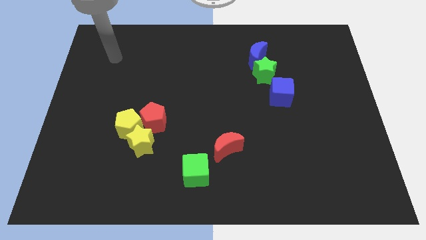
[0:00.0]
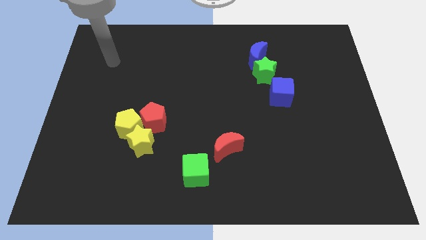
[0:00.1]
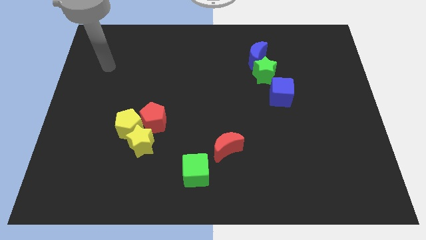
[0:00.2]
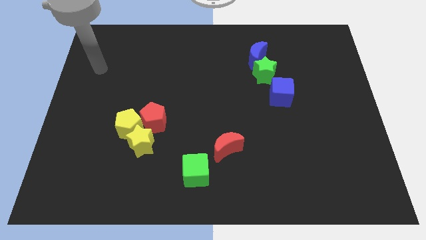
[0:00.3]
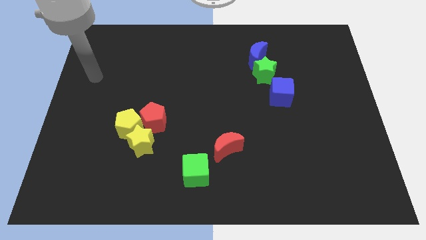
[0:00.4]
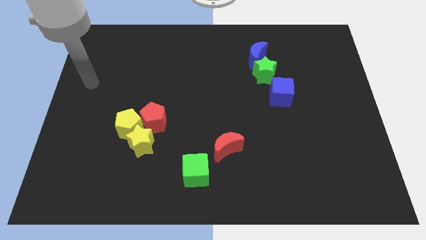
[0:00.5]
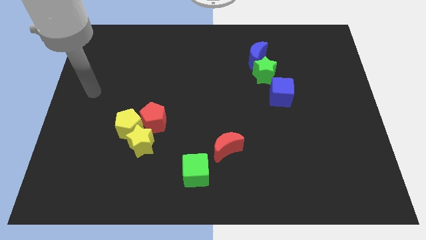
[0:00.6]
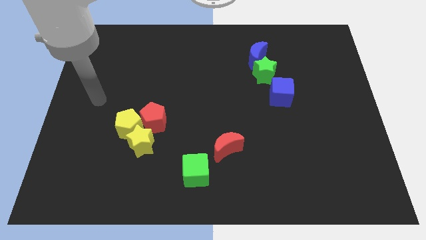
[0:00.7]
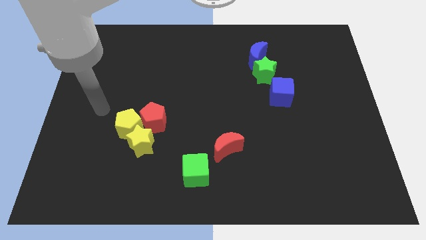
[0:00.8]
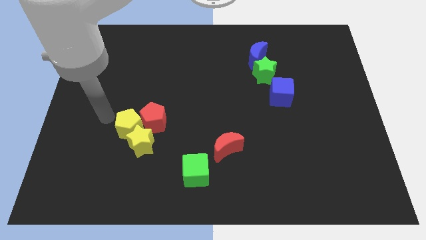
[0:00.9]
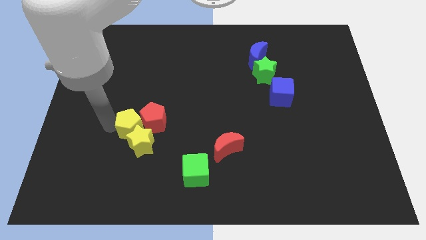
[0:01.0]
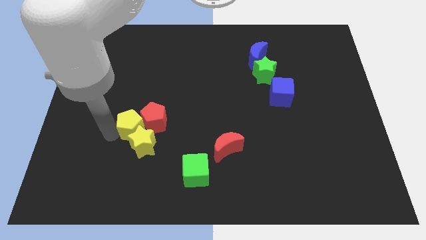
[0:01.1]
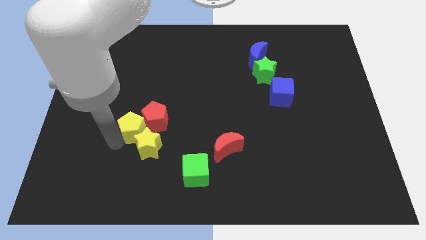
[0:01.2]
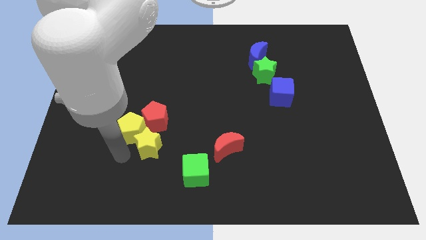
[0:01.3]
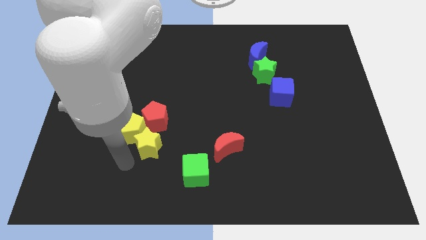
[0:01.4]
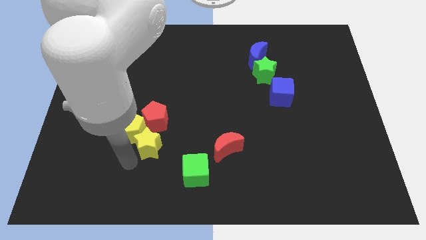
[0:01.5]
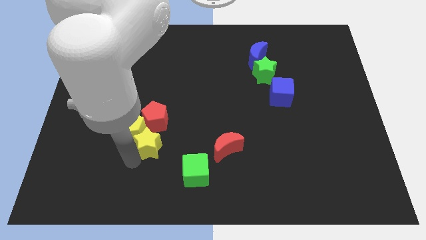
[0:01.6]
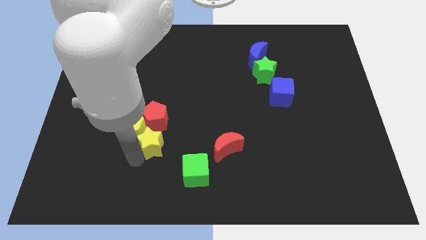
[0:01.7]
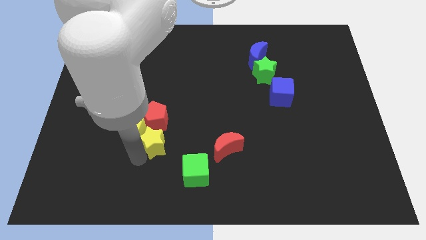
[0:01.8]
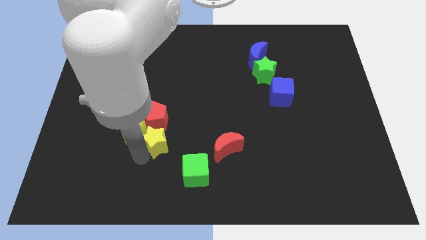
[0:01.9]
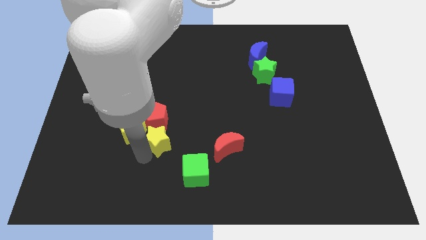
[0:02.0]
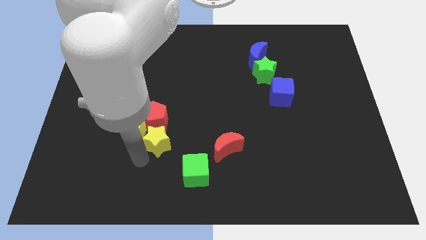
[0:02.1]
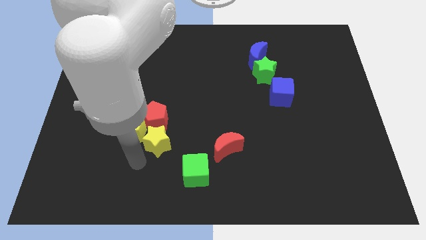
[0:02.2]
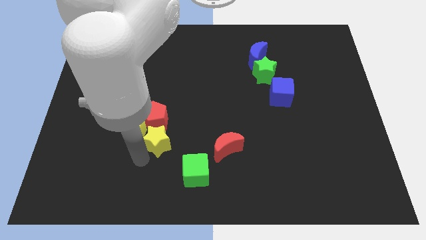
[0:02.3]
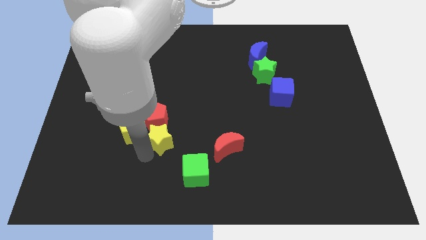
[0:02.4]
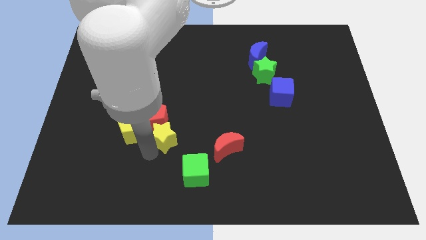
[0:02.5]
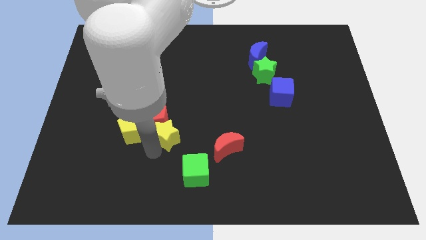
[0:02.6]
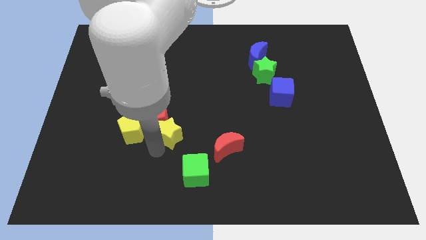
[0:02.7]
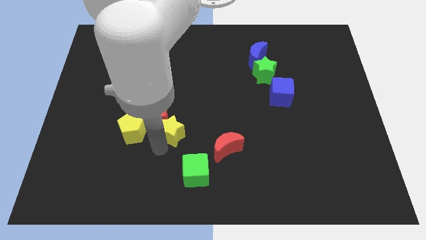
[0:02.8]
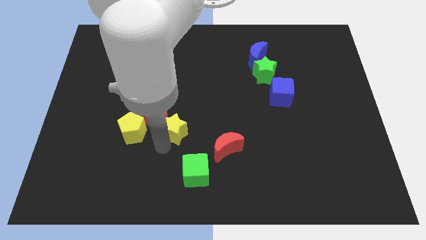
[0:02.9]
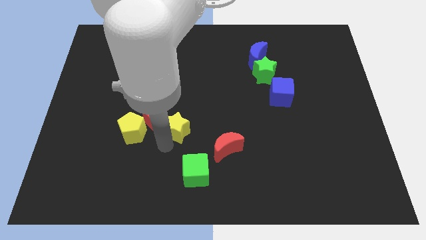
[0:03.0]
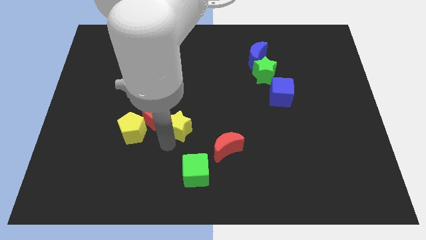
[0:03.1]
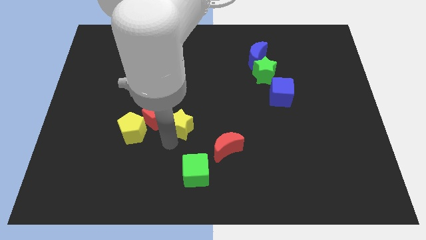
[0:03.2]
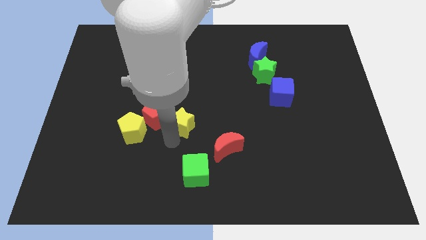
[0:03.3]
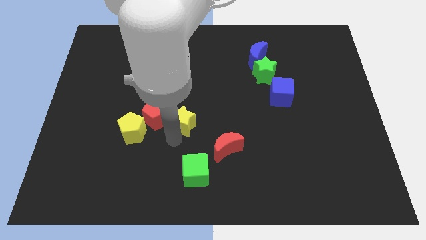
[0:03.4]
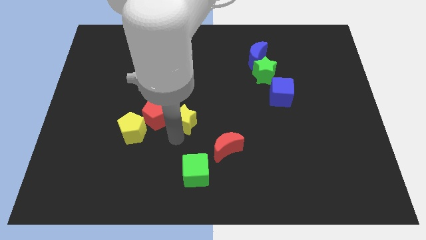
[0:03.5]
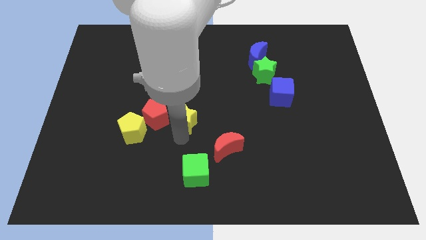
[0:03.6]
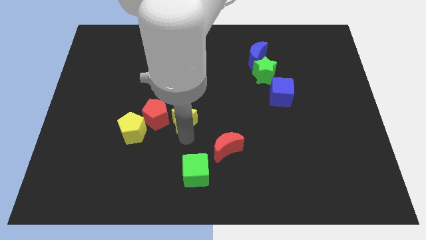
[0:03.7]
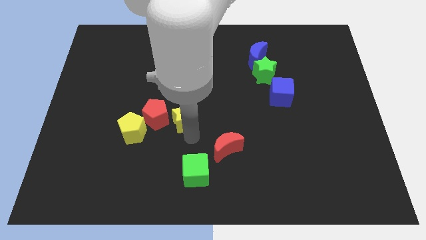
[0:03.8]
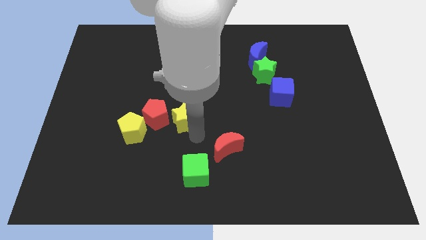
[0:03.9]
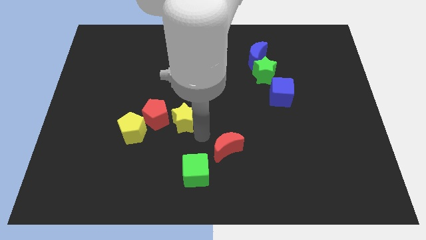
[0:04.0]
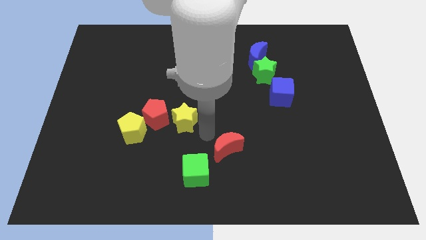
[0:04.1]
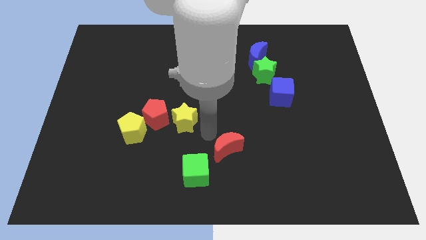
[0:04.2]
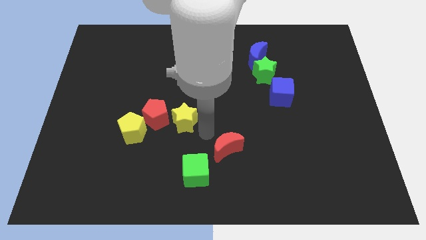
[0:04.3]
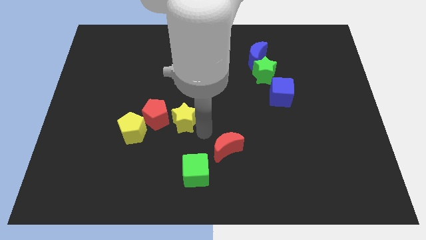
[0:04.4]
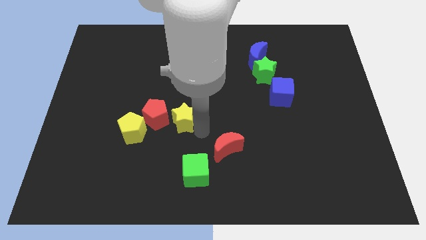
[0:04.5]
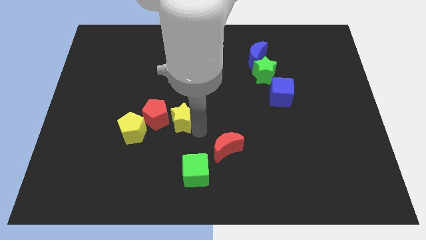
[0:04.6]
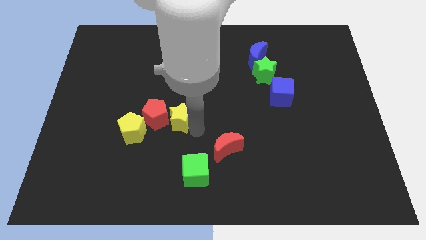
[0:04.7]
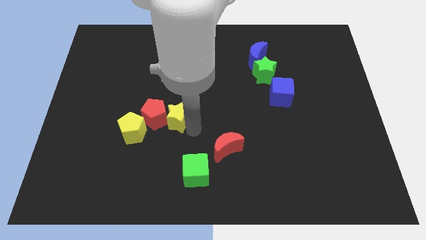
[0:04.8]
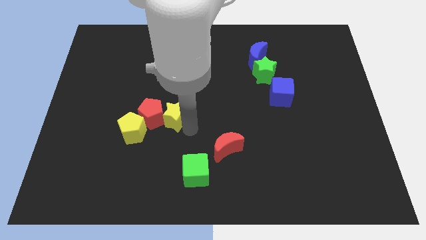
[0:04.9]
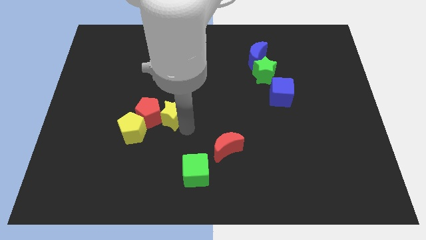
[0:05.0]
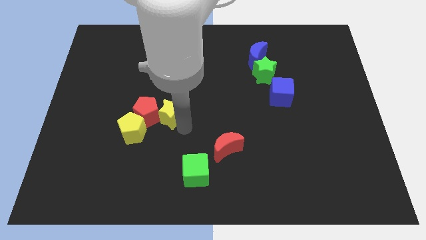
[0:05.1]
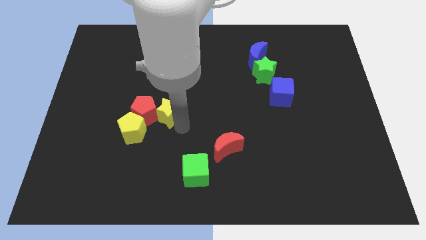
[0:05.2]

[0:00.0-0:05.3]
slide the yellow star up a bit

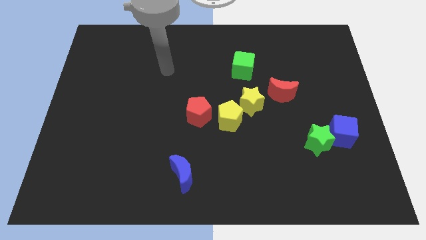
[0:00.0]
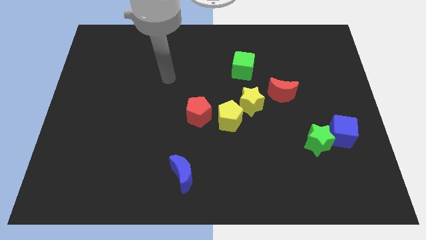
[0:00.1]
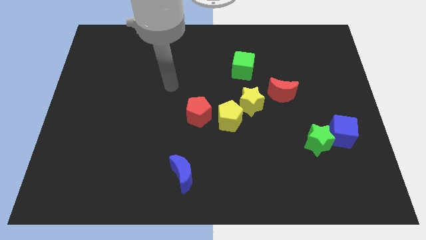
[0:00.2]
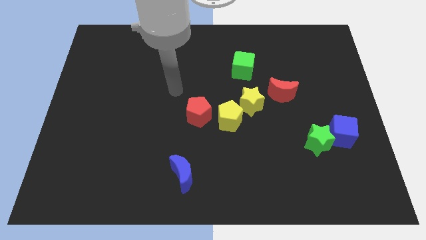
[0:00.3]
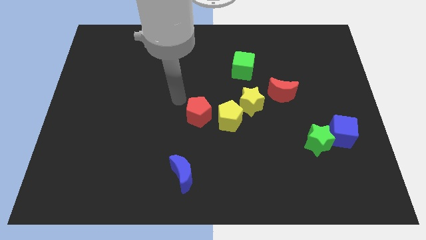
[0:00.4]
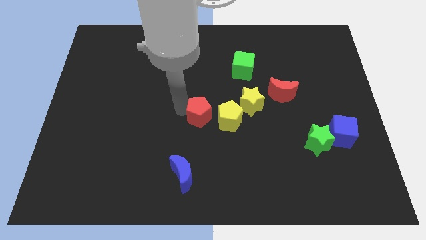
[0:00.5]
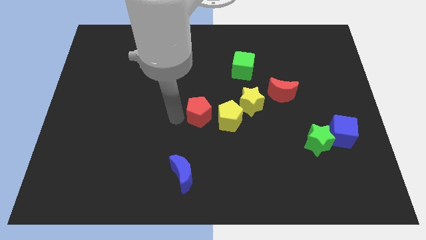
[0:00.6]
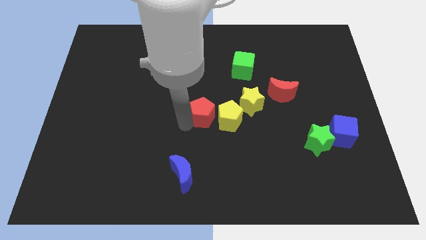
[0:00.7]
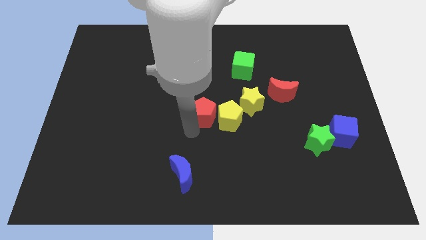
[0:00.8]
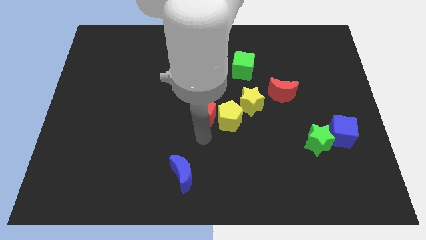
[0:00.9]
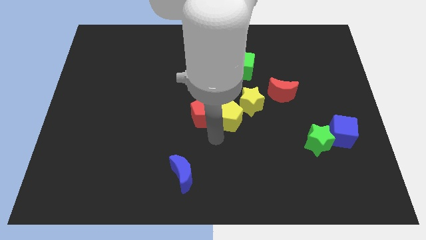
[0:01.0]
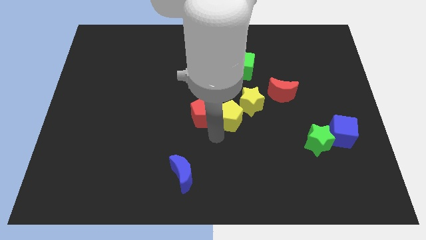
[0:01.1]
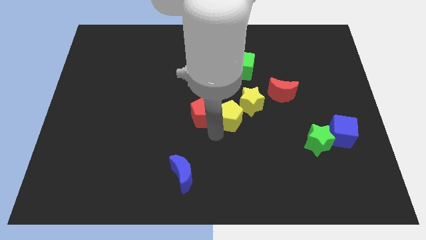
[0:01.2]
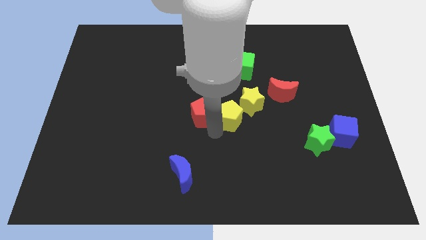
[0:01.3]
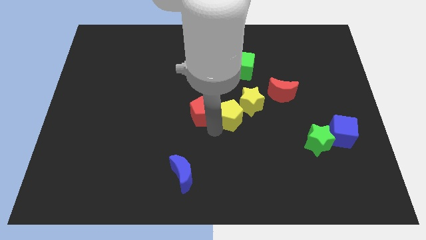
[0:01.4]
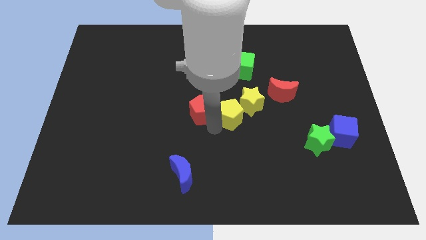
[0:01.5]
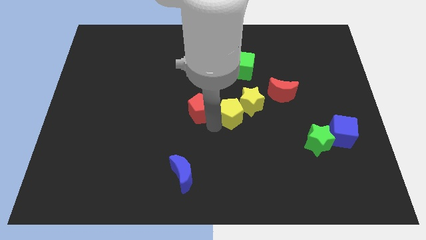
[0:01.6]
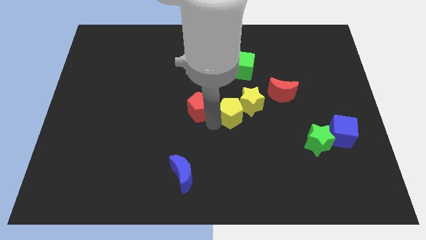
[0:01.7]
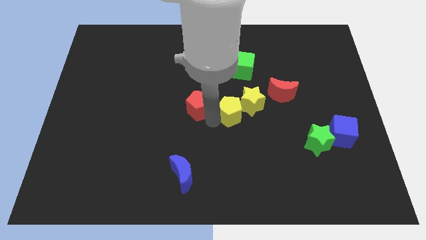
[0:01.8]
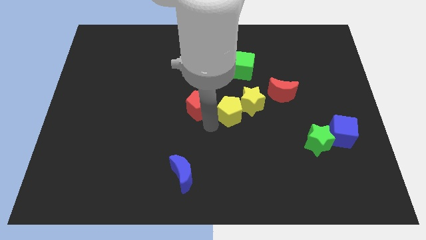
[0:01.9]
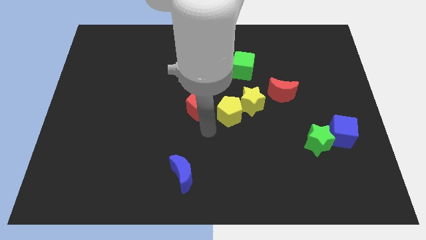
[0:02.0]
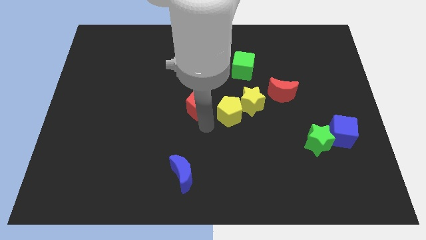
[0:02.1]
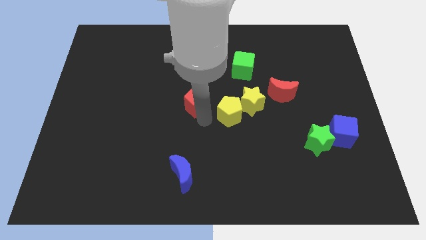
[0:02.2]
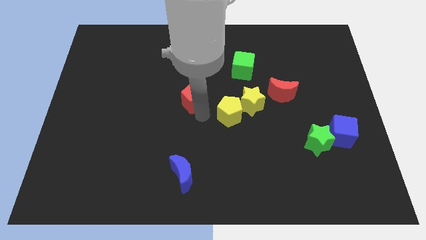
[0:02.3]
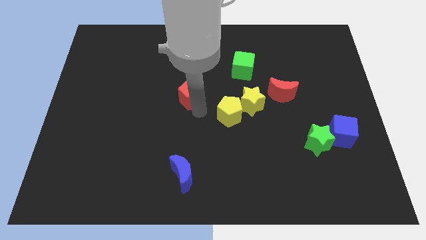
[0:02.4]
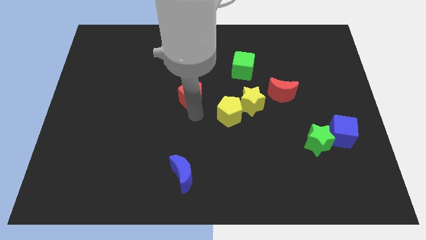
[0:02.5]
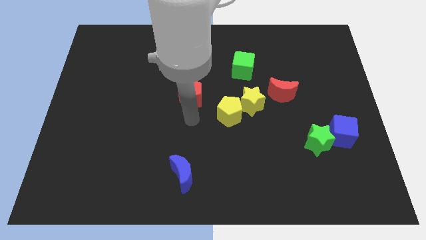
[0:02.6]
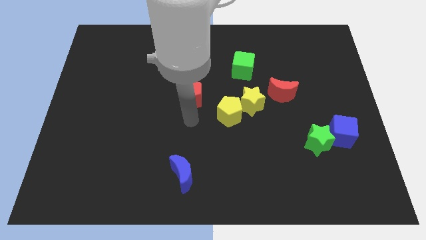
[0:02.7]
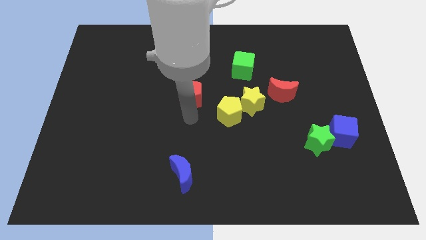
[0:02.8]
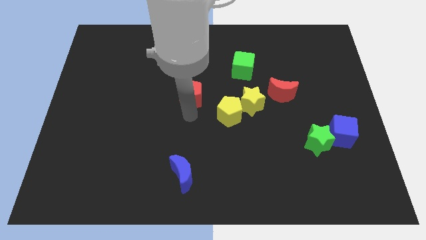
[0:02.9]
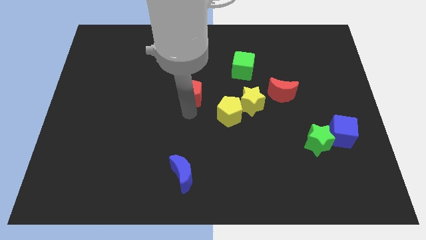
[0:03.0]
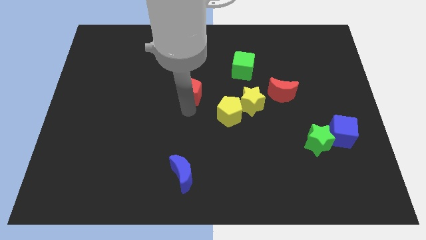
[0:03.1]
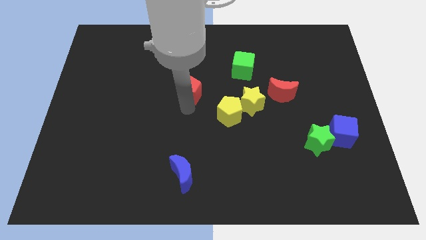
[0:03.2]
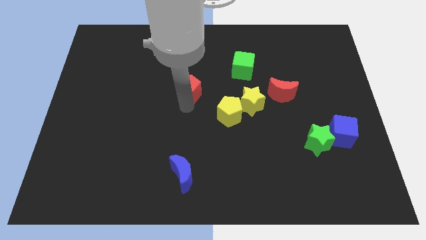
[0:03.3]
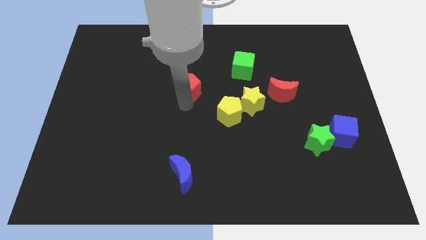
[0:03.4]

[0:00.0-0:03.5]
slightly slide the red pentagon upwards
